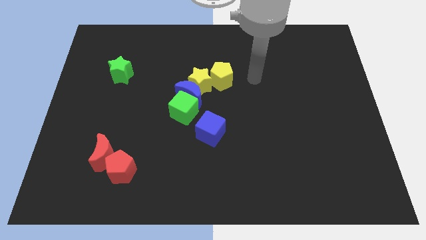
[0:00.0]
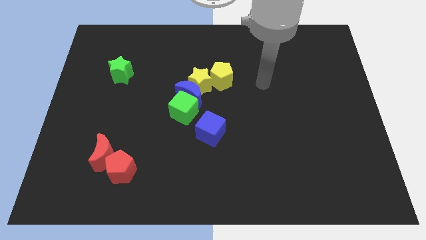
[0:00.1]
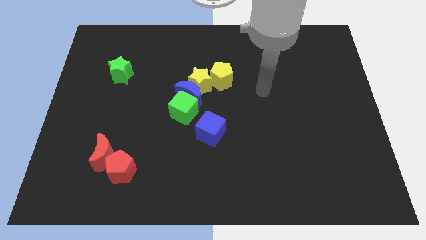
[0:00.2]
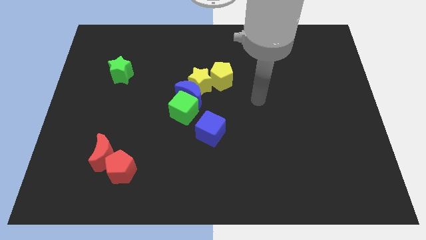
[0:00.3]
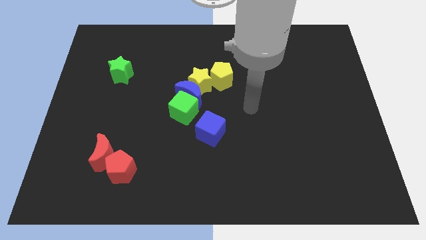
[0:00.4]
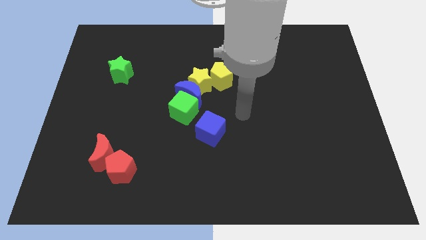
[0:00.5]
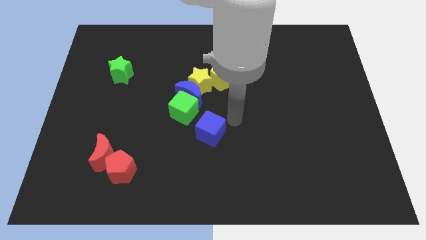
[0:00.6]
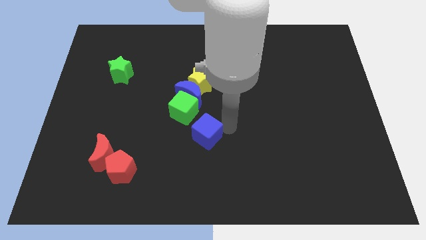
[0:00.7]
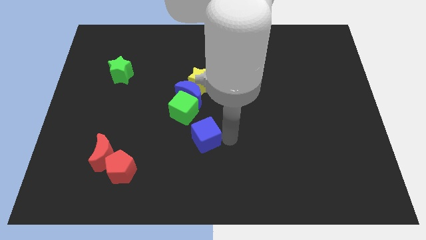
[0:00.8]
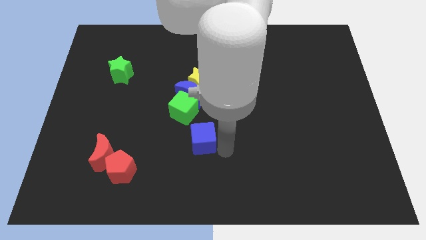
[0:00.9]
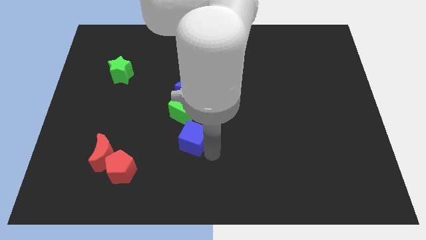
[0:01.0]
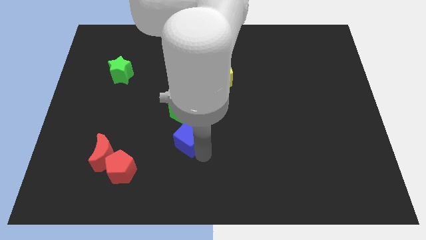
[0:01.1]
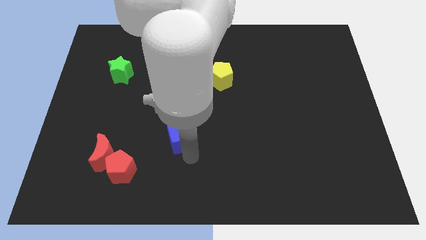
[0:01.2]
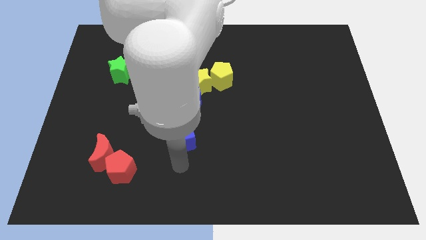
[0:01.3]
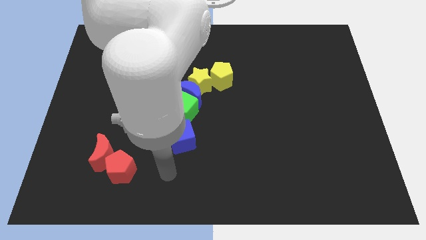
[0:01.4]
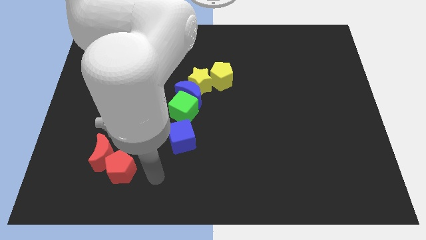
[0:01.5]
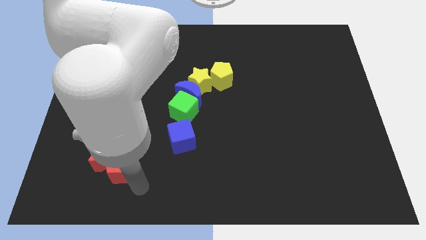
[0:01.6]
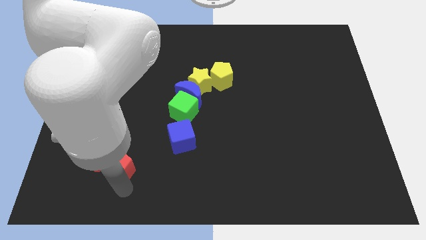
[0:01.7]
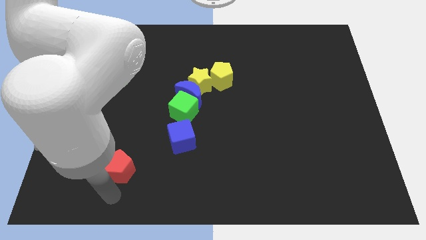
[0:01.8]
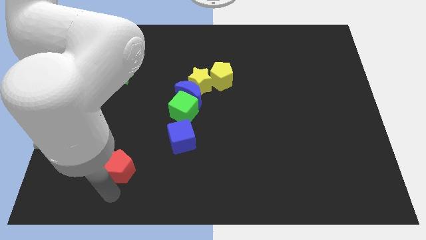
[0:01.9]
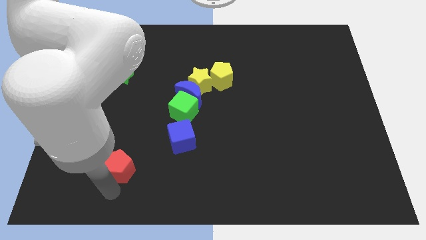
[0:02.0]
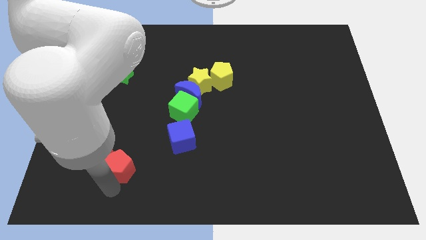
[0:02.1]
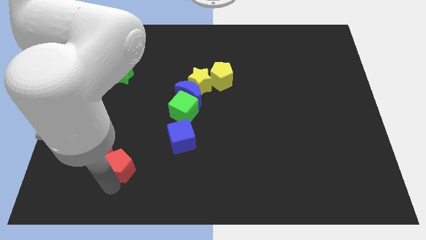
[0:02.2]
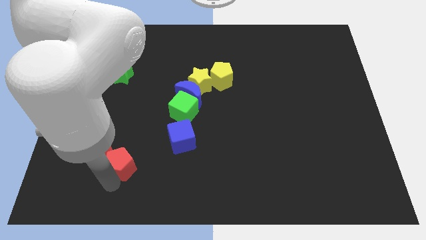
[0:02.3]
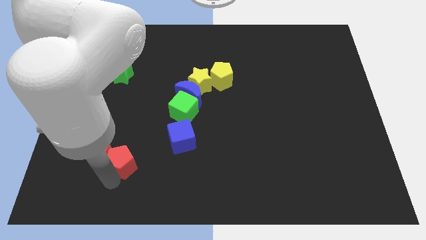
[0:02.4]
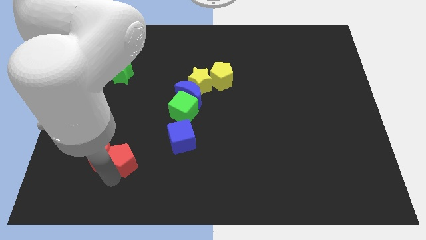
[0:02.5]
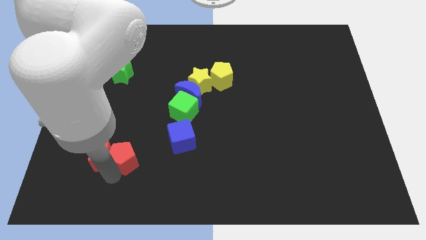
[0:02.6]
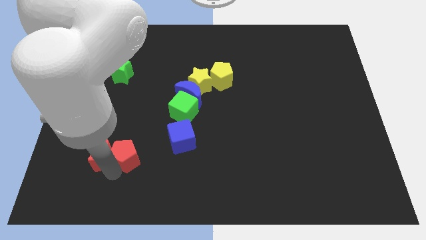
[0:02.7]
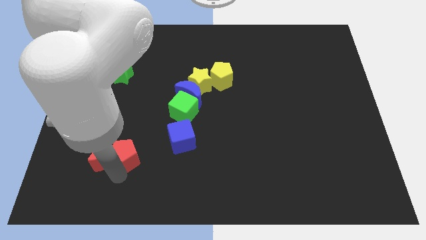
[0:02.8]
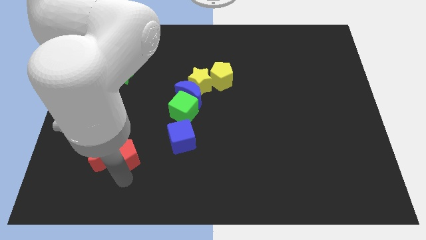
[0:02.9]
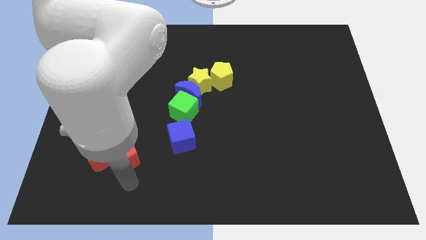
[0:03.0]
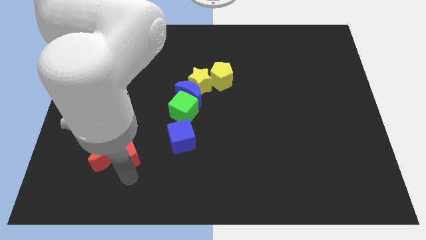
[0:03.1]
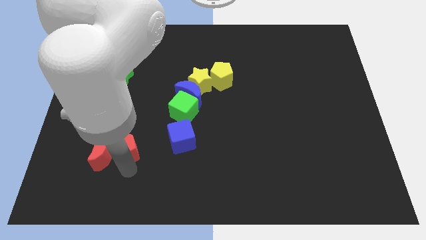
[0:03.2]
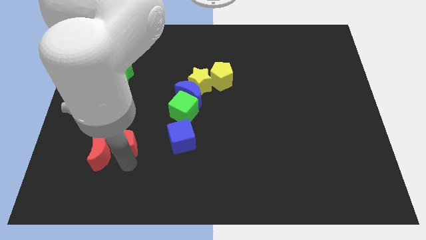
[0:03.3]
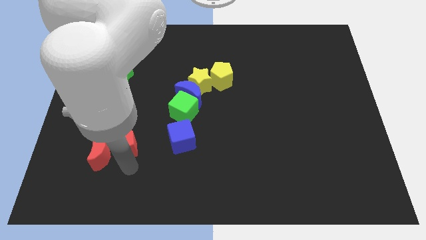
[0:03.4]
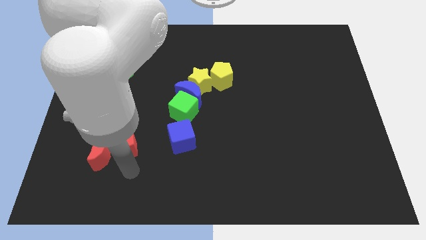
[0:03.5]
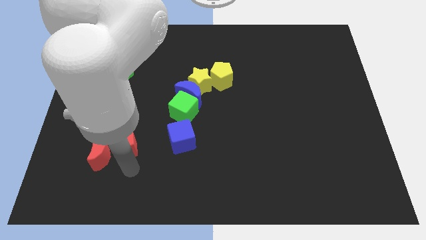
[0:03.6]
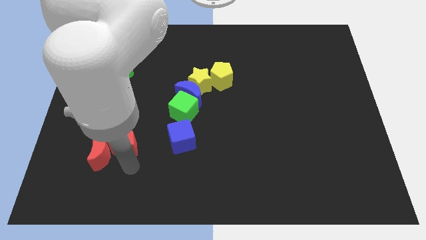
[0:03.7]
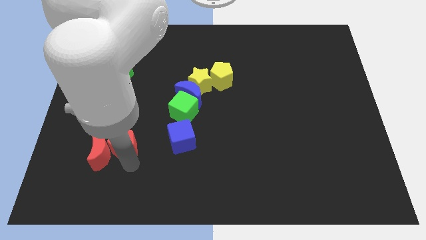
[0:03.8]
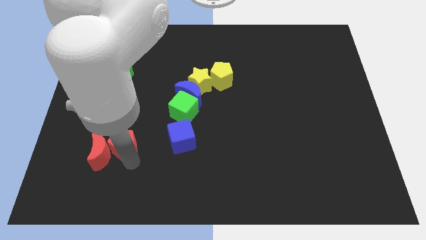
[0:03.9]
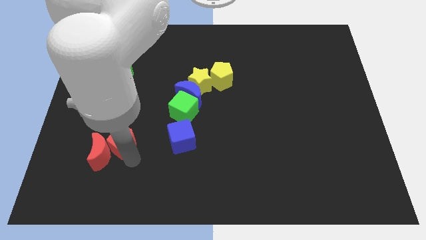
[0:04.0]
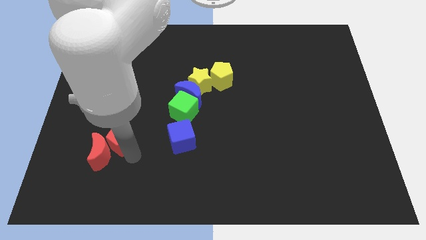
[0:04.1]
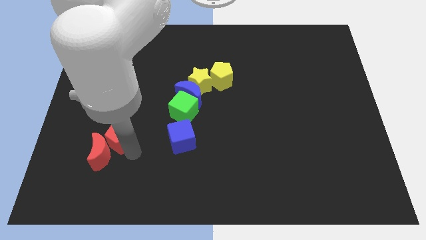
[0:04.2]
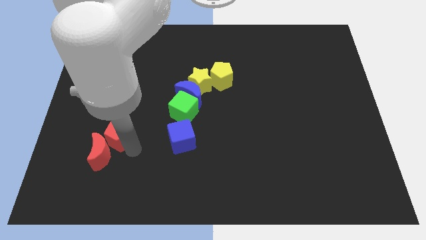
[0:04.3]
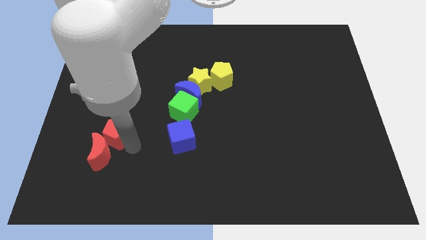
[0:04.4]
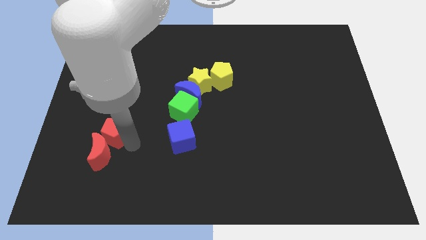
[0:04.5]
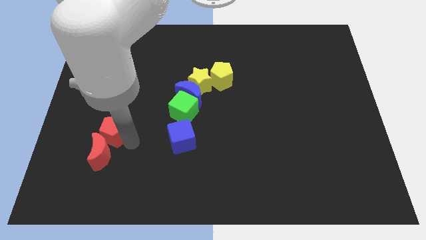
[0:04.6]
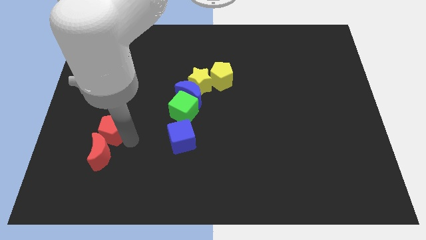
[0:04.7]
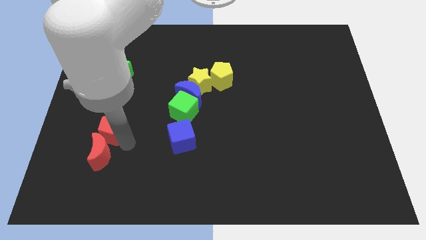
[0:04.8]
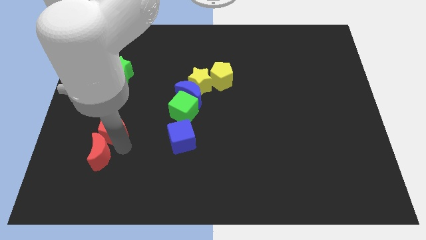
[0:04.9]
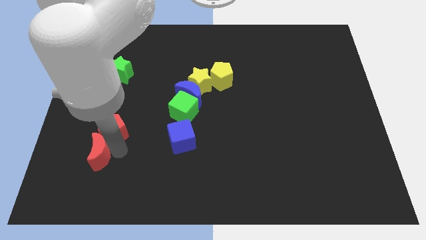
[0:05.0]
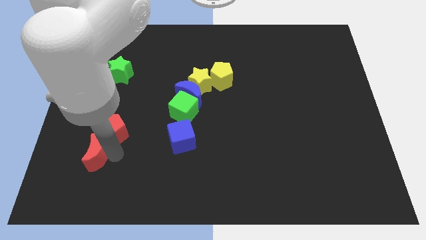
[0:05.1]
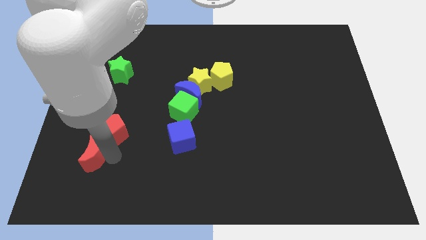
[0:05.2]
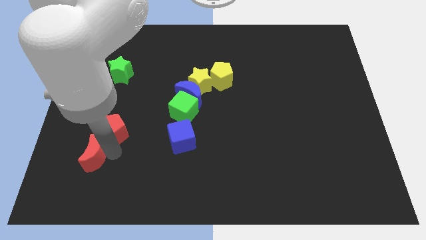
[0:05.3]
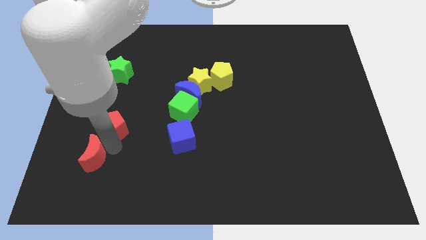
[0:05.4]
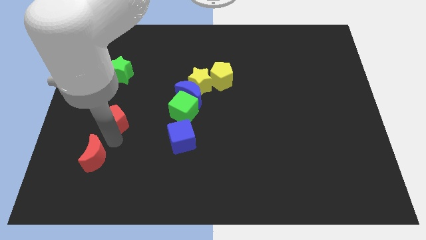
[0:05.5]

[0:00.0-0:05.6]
put the red pentagon below the green star

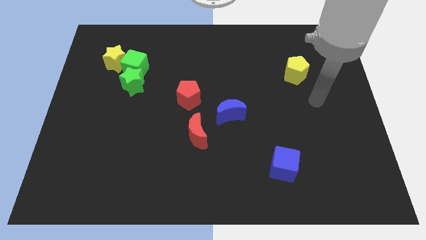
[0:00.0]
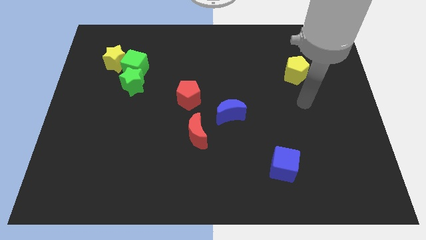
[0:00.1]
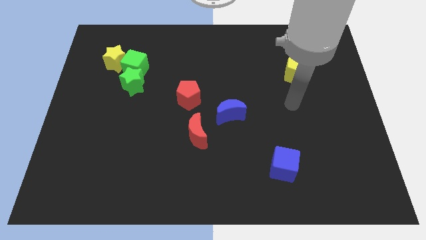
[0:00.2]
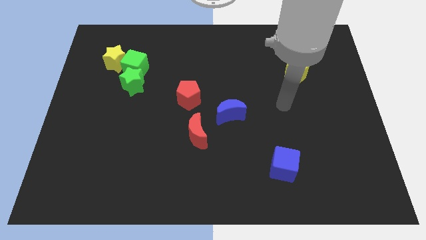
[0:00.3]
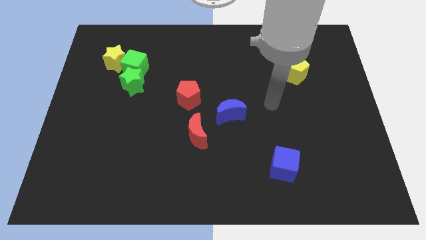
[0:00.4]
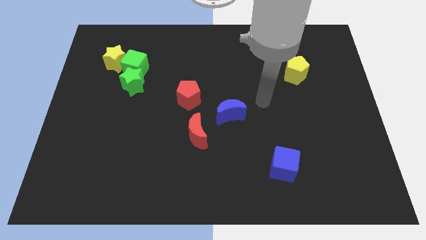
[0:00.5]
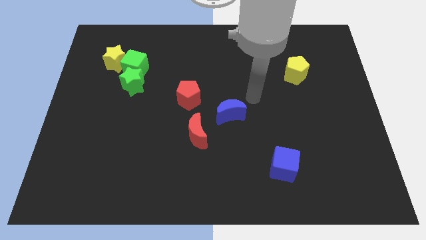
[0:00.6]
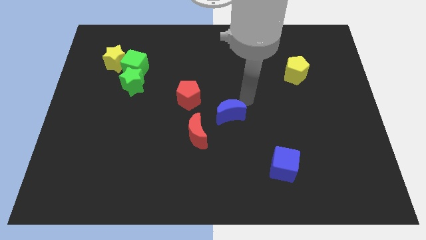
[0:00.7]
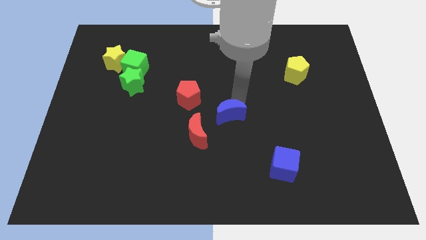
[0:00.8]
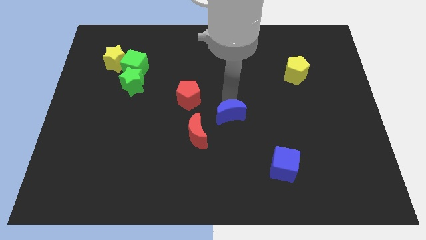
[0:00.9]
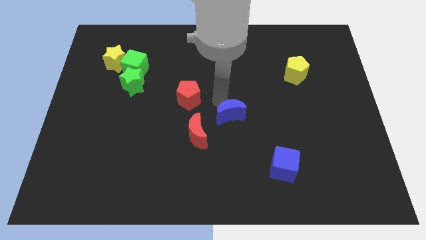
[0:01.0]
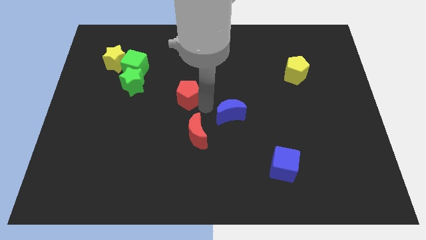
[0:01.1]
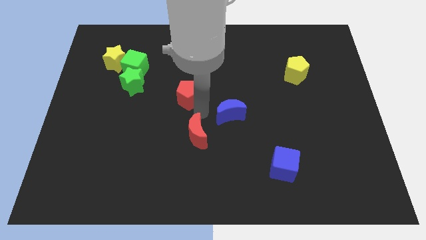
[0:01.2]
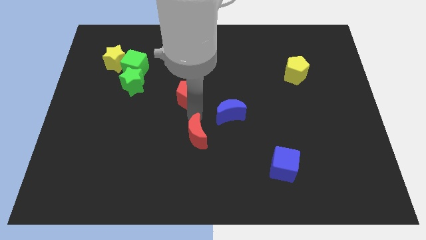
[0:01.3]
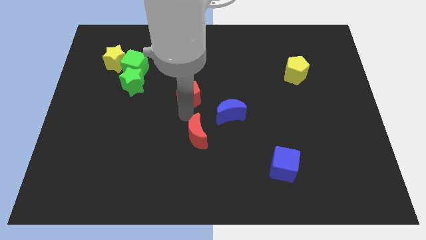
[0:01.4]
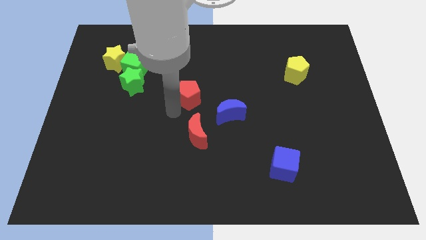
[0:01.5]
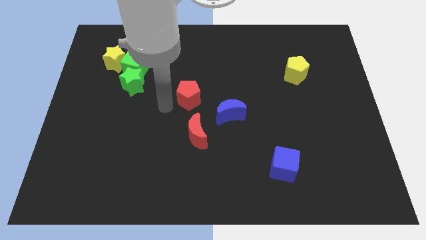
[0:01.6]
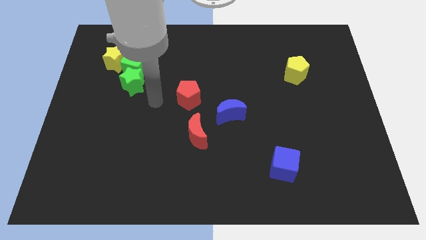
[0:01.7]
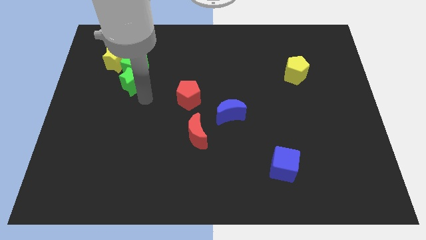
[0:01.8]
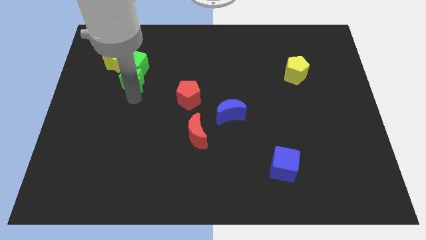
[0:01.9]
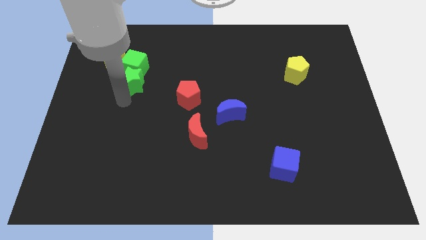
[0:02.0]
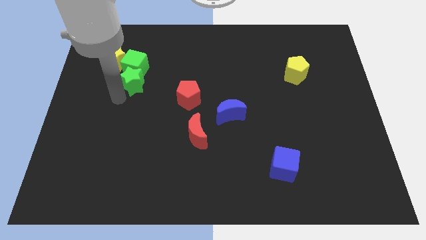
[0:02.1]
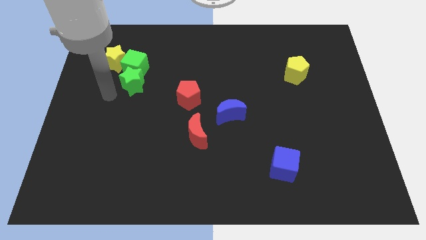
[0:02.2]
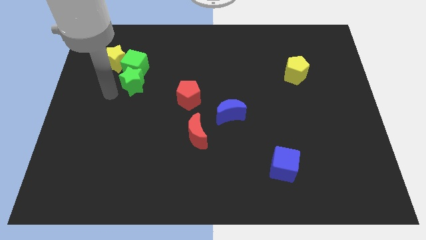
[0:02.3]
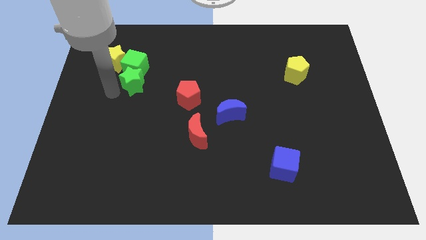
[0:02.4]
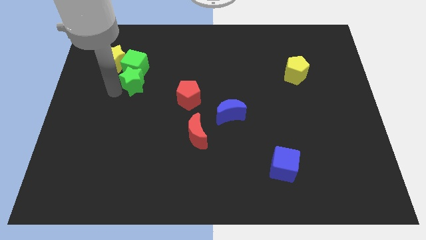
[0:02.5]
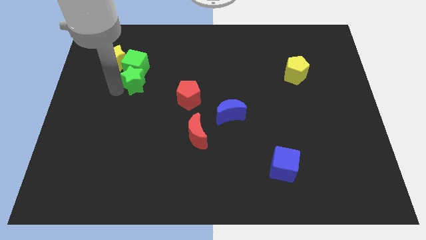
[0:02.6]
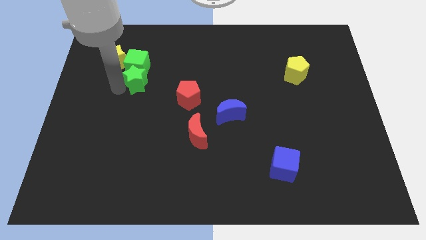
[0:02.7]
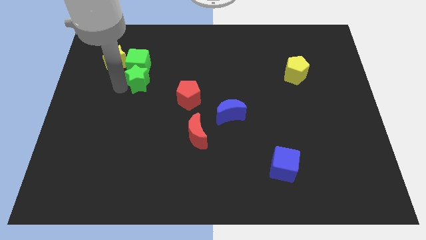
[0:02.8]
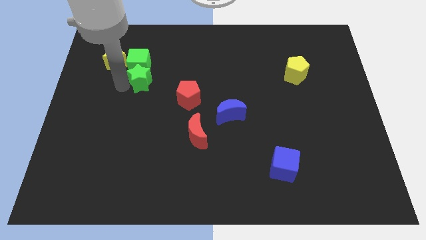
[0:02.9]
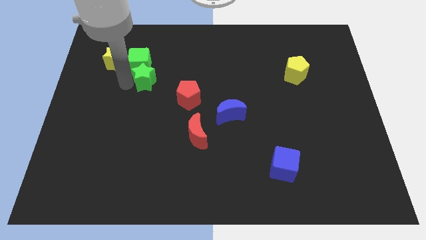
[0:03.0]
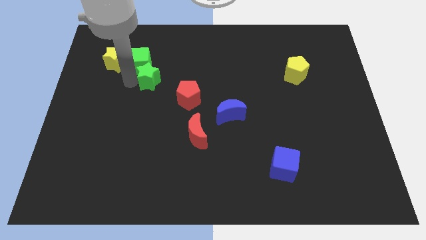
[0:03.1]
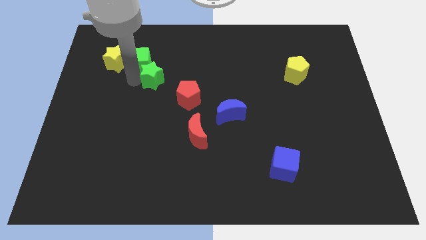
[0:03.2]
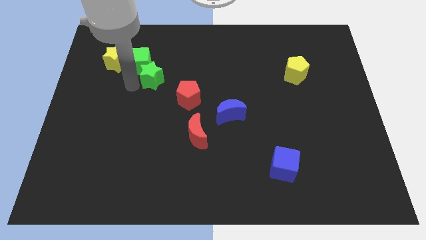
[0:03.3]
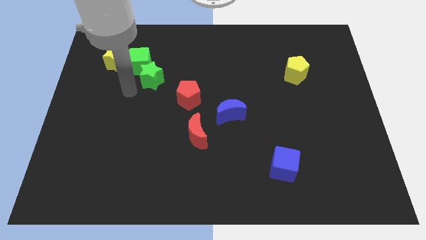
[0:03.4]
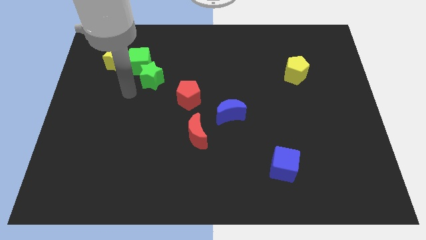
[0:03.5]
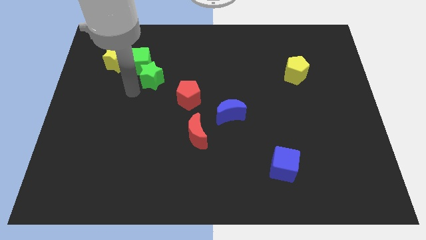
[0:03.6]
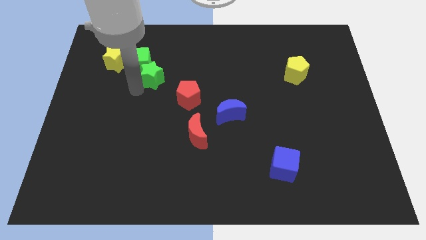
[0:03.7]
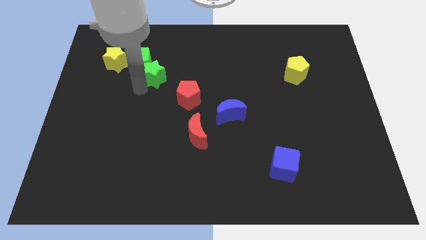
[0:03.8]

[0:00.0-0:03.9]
put the green star to the right side of the green cube
